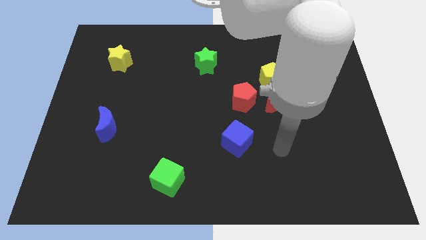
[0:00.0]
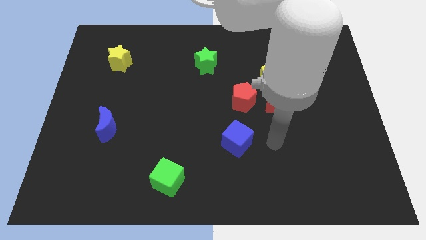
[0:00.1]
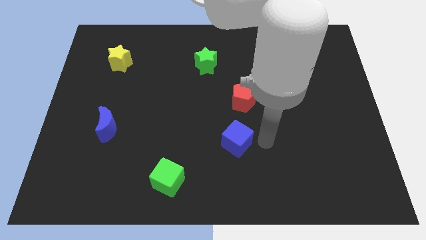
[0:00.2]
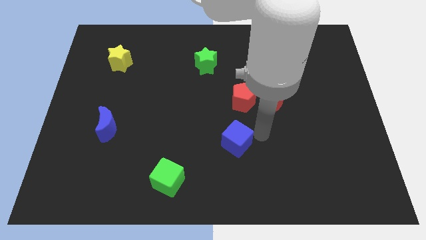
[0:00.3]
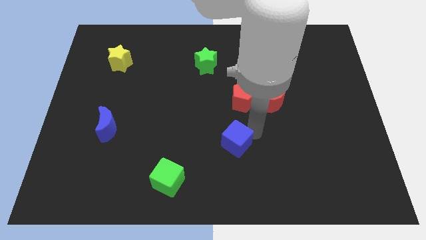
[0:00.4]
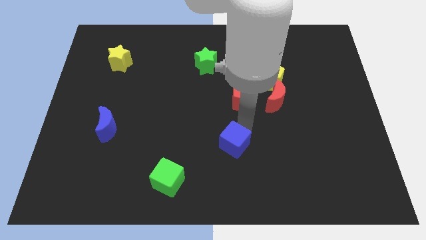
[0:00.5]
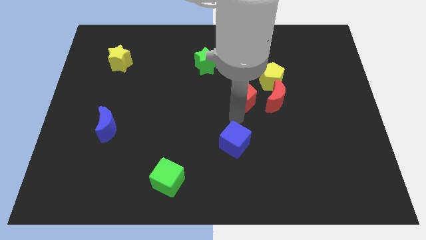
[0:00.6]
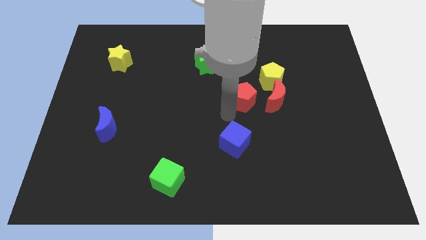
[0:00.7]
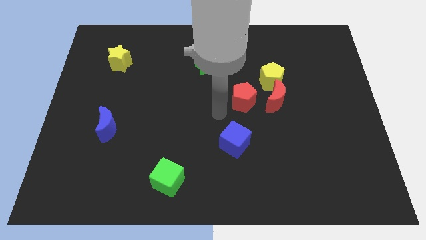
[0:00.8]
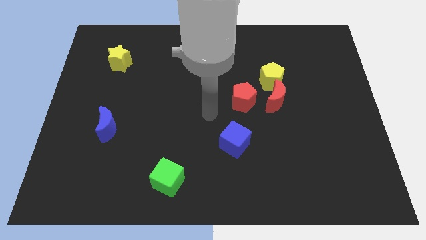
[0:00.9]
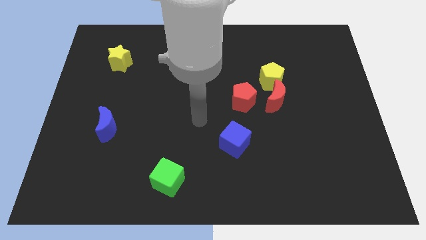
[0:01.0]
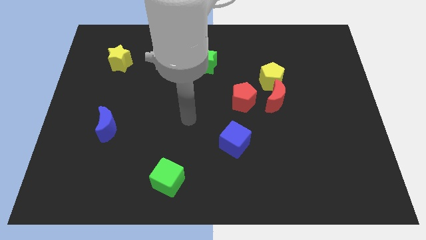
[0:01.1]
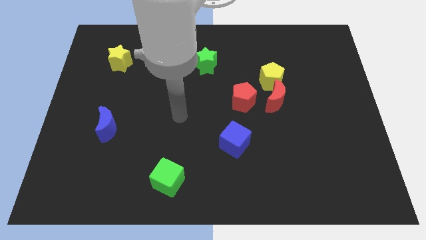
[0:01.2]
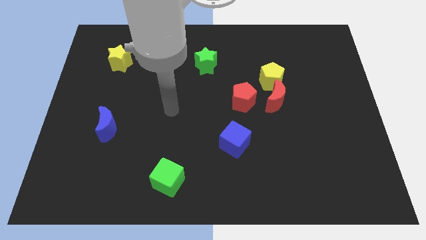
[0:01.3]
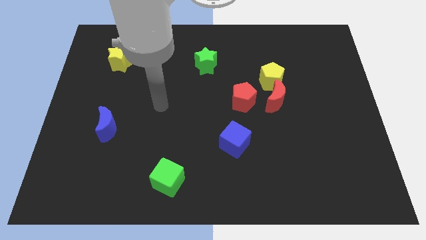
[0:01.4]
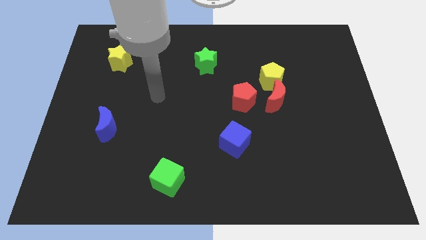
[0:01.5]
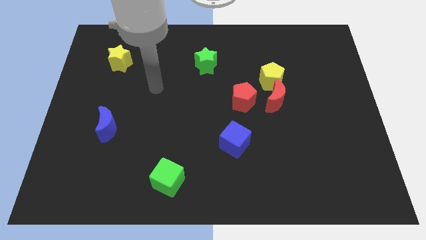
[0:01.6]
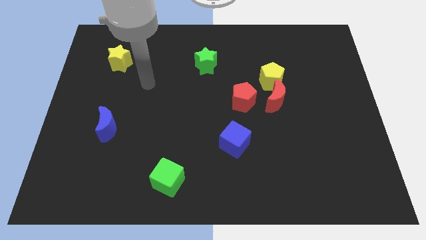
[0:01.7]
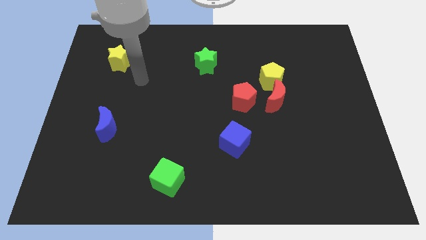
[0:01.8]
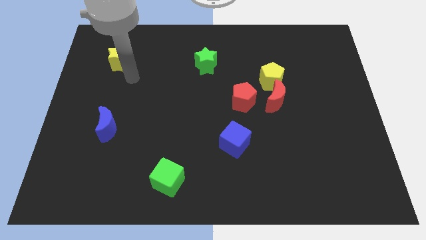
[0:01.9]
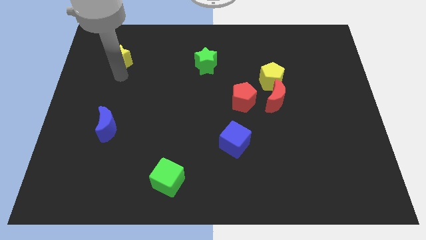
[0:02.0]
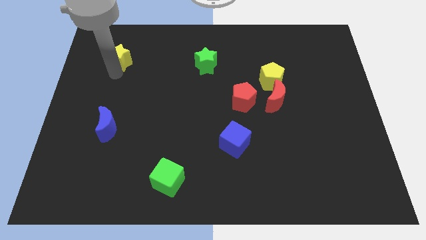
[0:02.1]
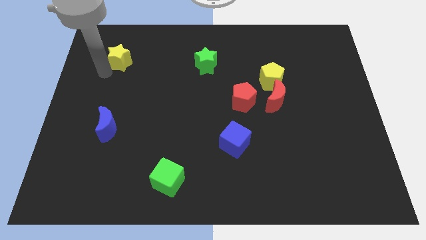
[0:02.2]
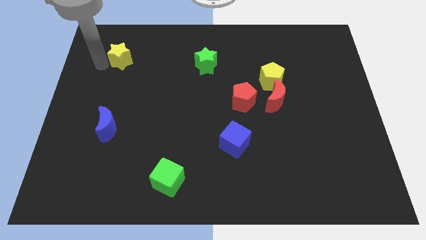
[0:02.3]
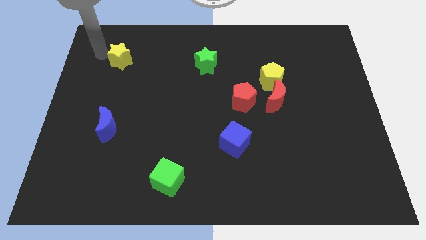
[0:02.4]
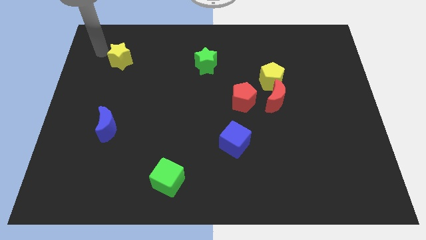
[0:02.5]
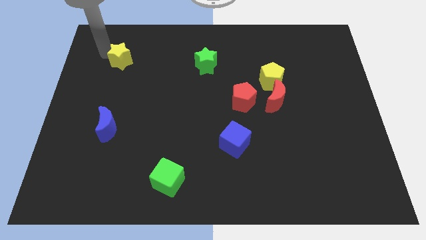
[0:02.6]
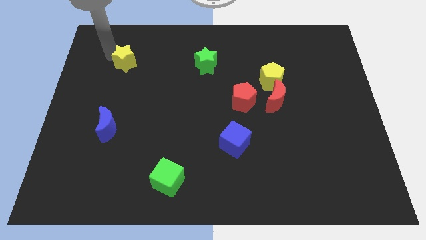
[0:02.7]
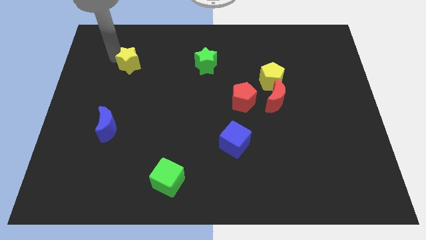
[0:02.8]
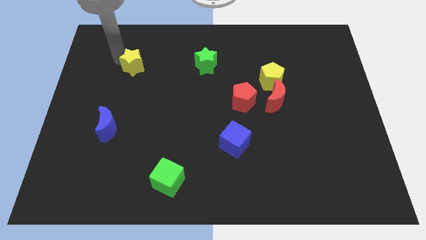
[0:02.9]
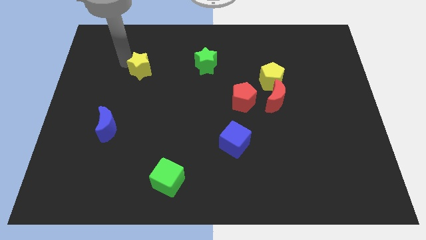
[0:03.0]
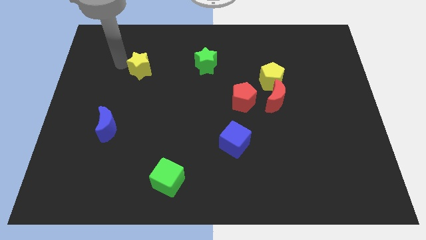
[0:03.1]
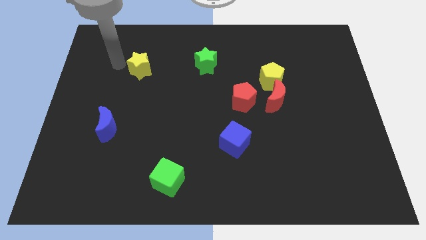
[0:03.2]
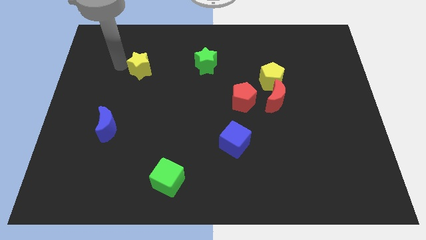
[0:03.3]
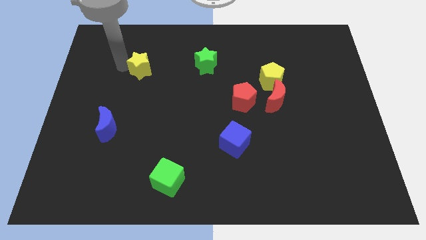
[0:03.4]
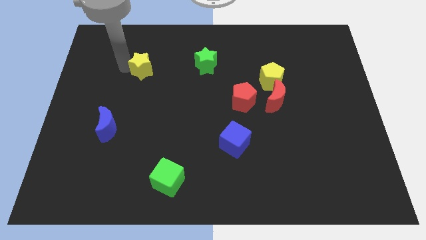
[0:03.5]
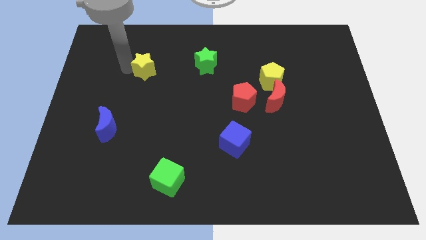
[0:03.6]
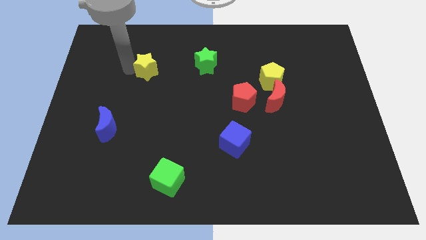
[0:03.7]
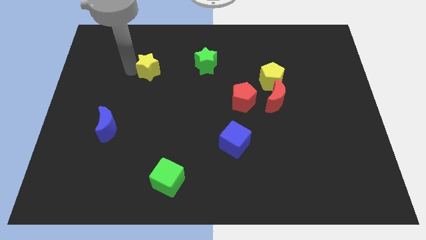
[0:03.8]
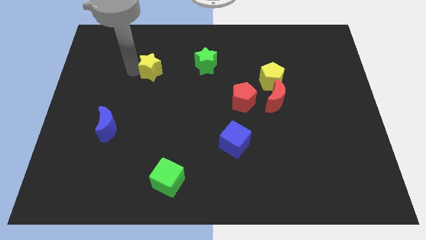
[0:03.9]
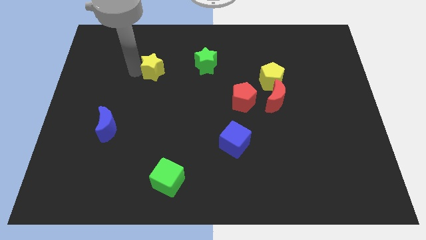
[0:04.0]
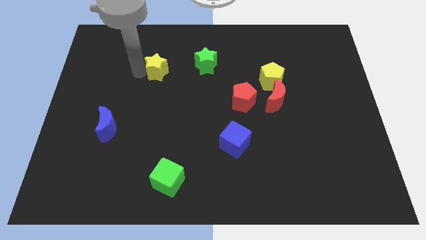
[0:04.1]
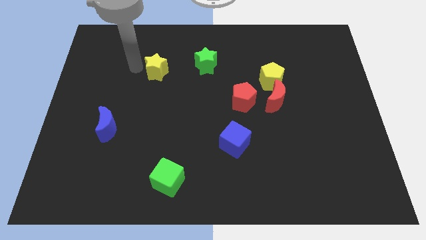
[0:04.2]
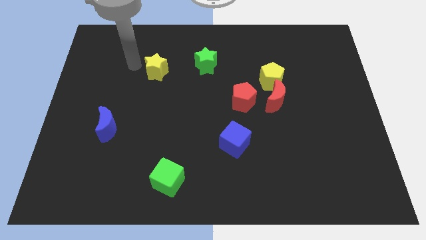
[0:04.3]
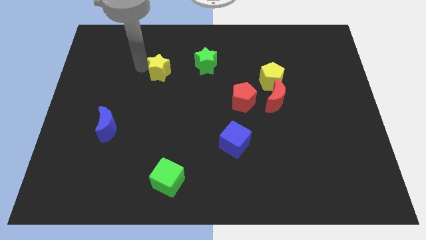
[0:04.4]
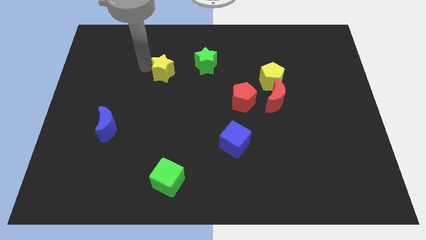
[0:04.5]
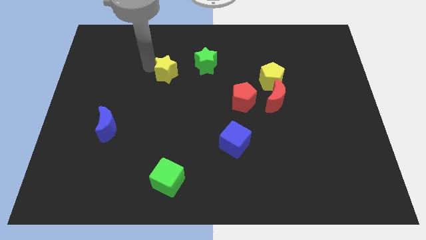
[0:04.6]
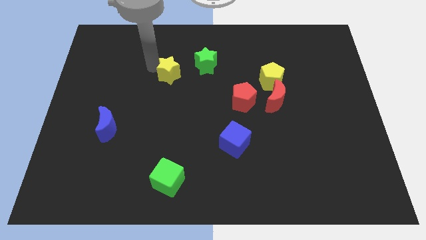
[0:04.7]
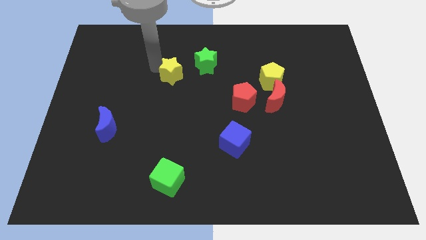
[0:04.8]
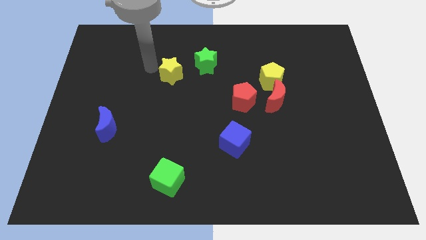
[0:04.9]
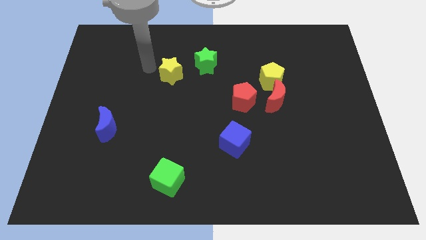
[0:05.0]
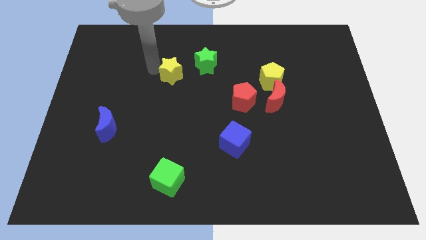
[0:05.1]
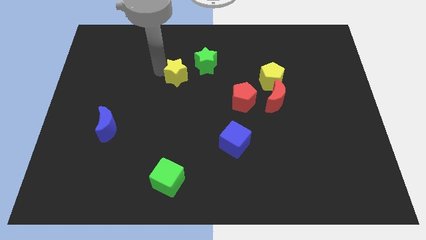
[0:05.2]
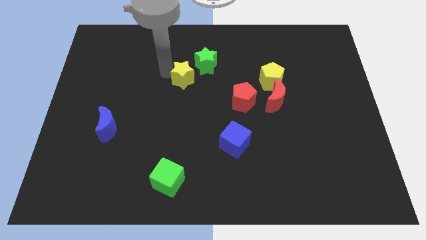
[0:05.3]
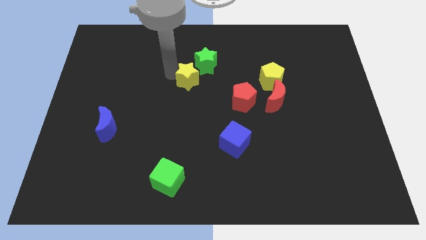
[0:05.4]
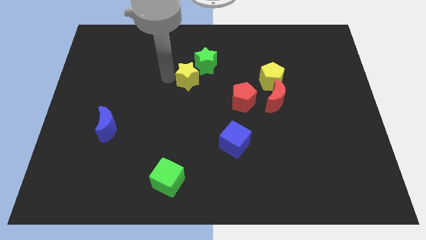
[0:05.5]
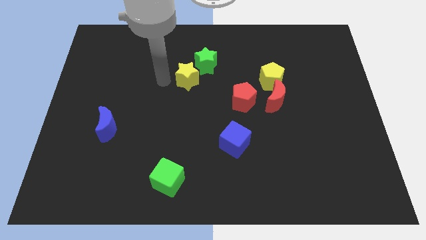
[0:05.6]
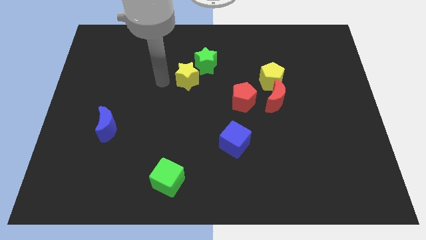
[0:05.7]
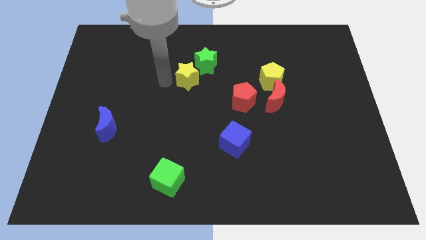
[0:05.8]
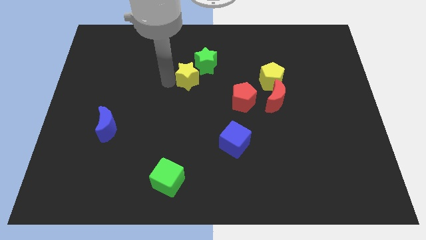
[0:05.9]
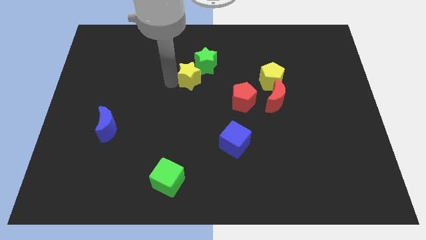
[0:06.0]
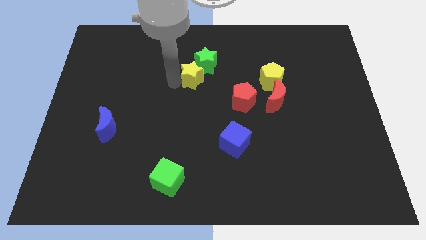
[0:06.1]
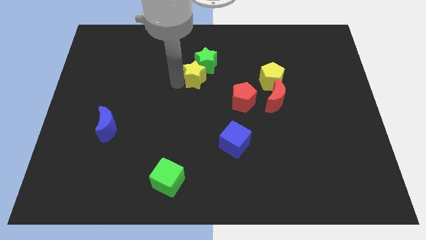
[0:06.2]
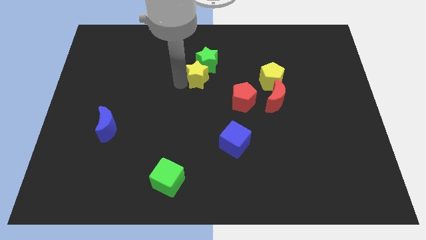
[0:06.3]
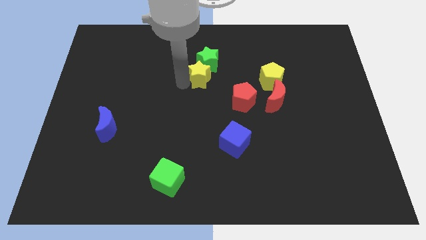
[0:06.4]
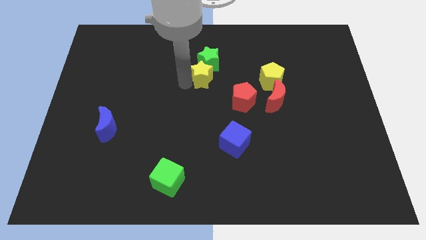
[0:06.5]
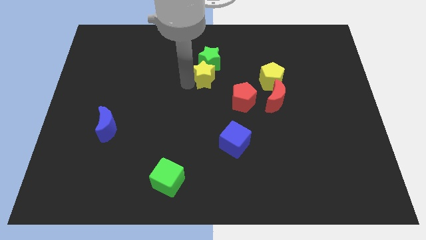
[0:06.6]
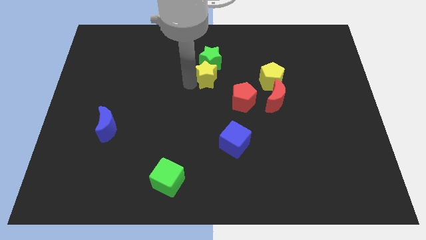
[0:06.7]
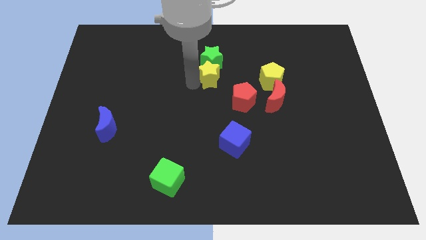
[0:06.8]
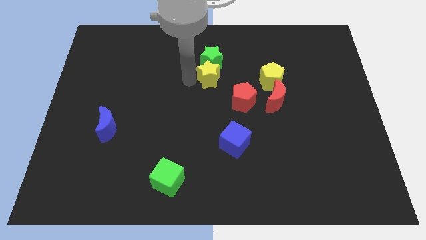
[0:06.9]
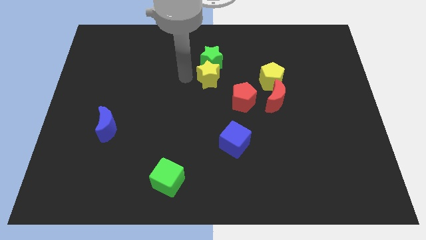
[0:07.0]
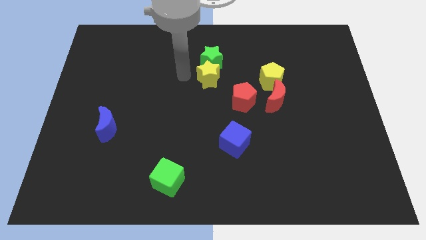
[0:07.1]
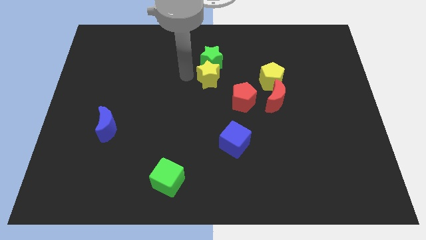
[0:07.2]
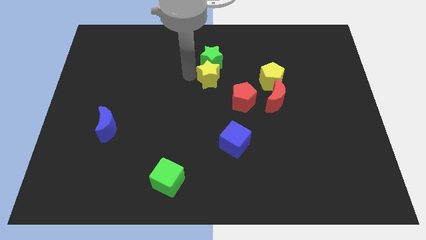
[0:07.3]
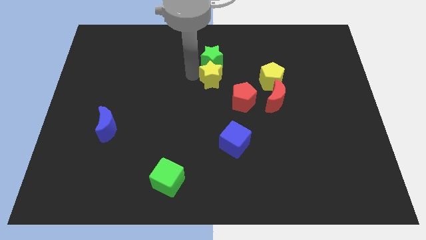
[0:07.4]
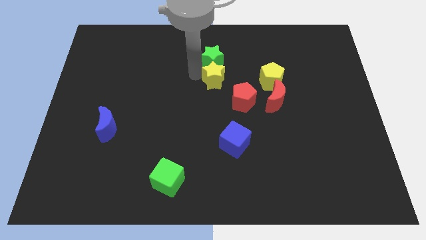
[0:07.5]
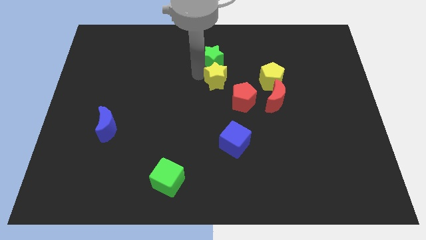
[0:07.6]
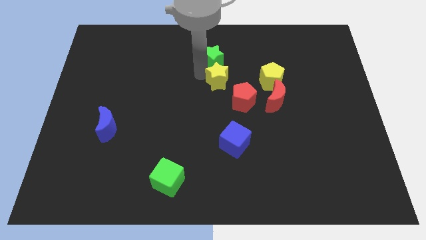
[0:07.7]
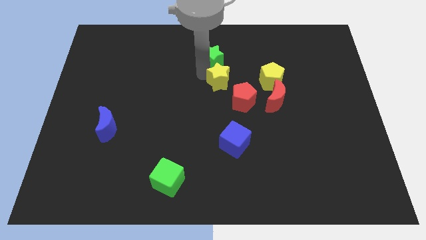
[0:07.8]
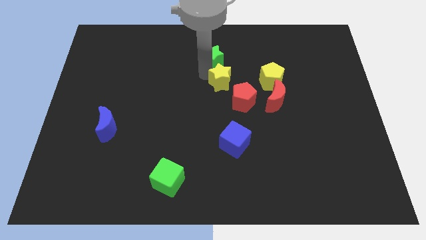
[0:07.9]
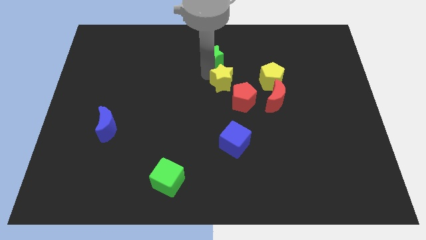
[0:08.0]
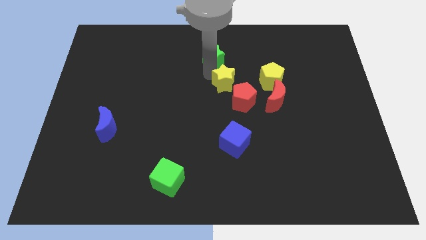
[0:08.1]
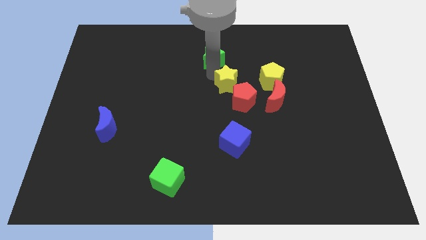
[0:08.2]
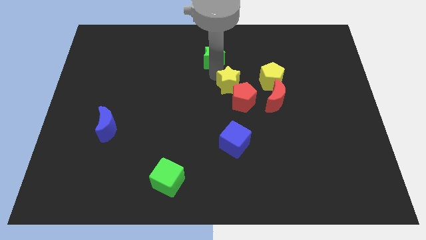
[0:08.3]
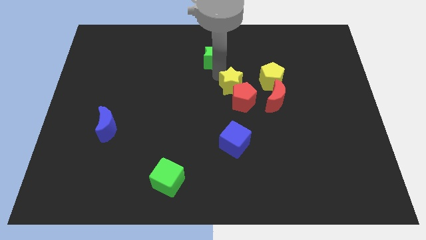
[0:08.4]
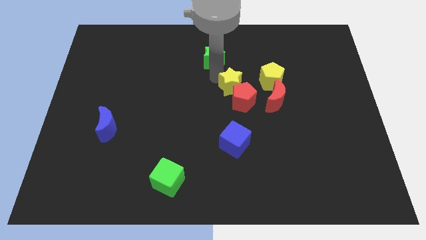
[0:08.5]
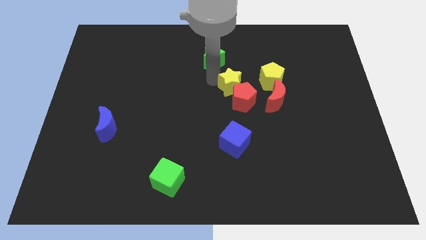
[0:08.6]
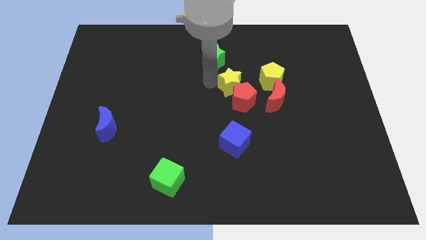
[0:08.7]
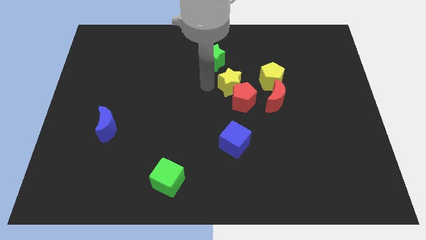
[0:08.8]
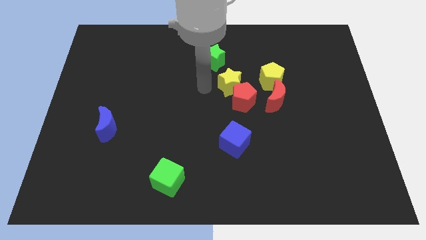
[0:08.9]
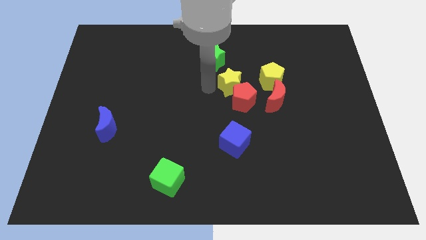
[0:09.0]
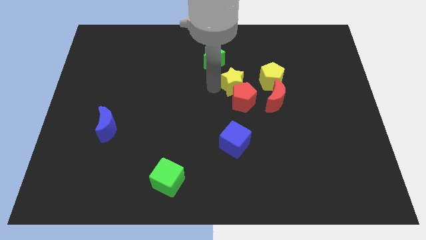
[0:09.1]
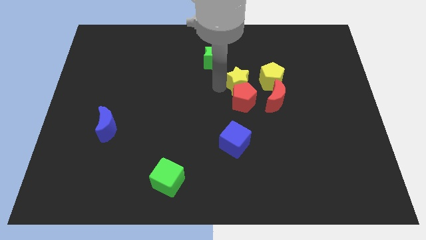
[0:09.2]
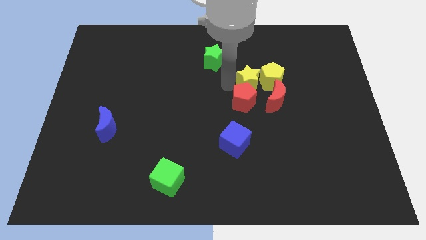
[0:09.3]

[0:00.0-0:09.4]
slide the yellow star towards the yellow pentagon
